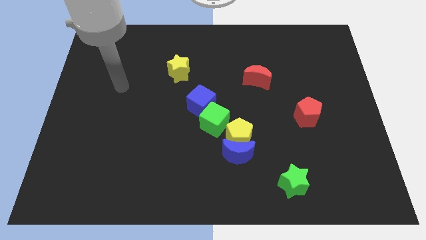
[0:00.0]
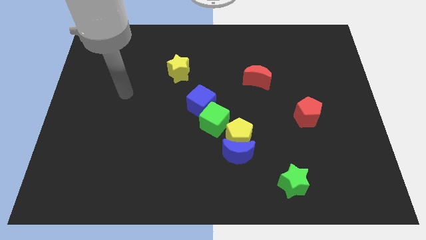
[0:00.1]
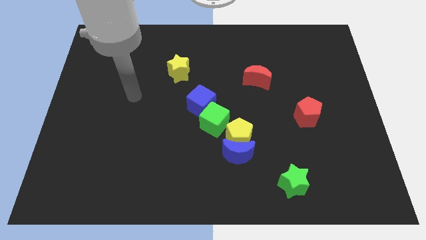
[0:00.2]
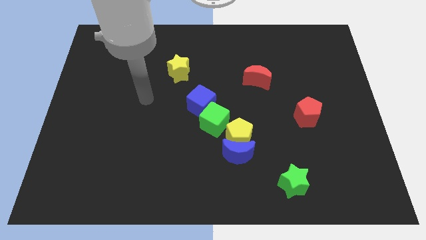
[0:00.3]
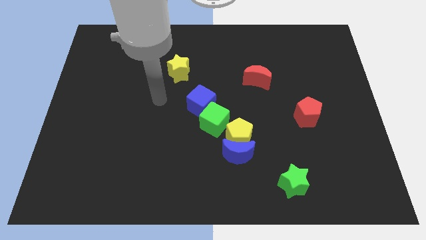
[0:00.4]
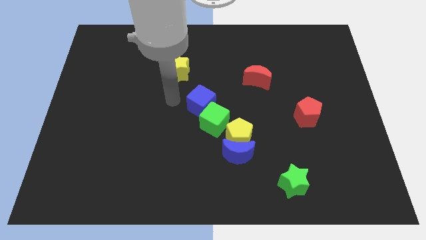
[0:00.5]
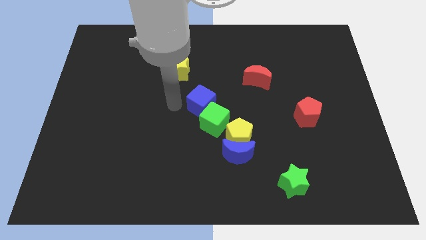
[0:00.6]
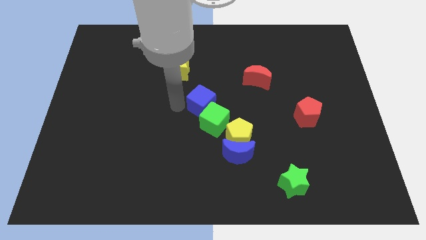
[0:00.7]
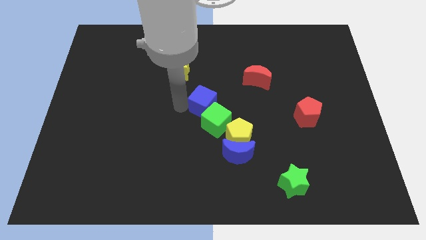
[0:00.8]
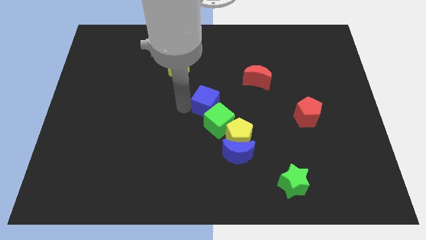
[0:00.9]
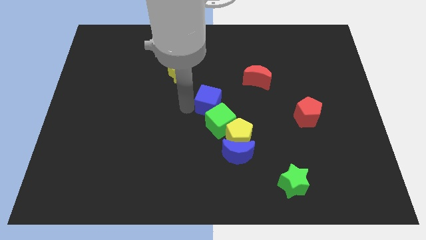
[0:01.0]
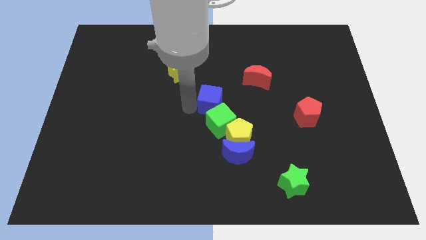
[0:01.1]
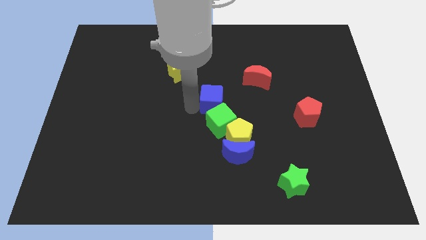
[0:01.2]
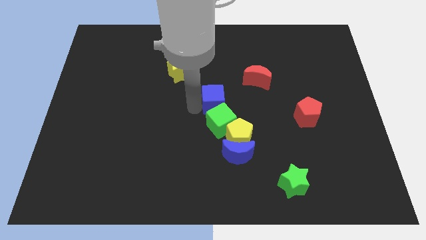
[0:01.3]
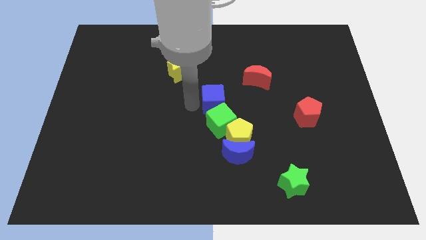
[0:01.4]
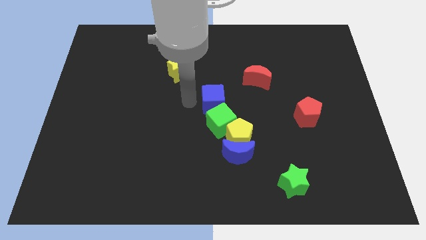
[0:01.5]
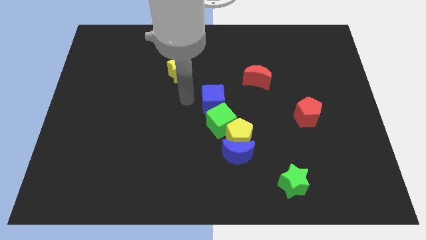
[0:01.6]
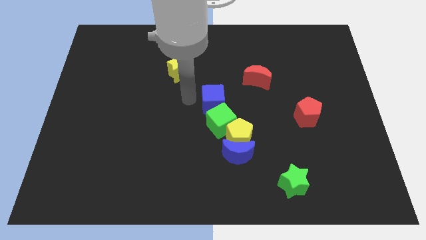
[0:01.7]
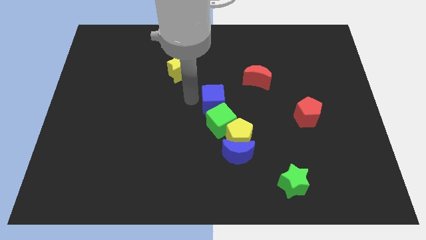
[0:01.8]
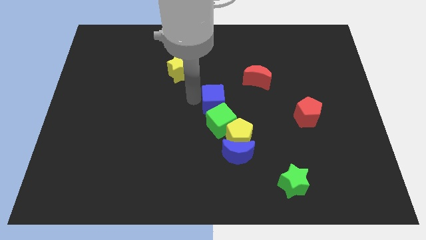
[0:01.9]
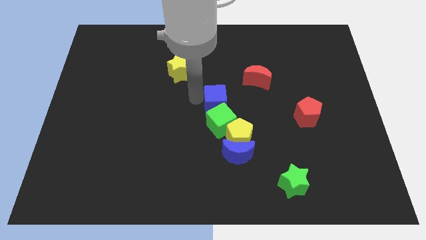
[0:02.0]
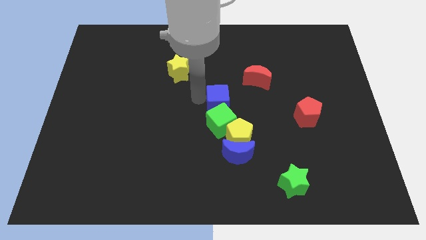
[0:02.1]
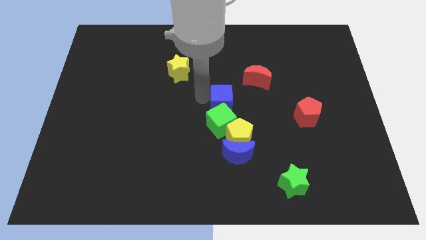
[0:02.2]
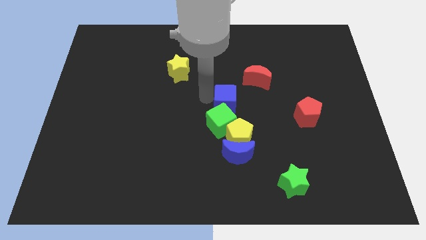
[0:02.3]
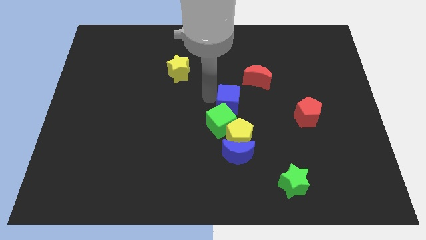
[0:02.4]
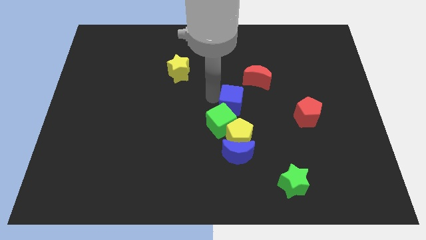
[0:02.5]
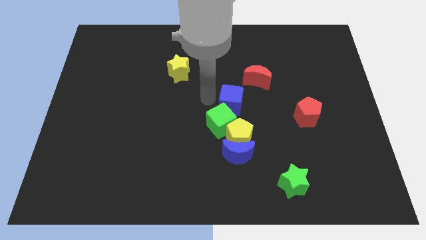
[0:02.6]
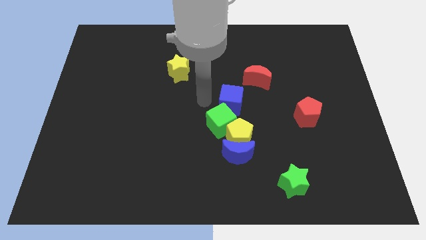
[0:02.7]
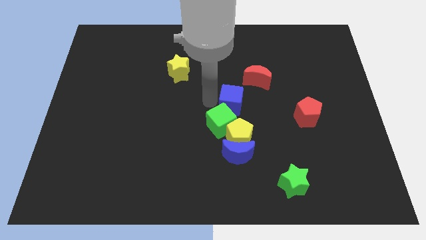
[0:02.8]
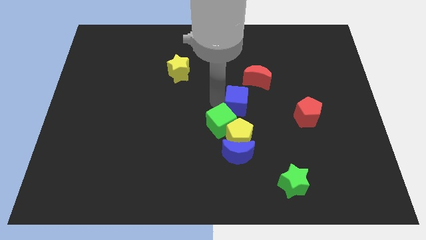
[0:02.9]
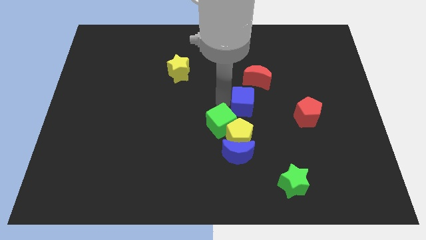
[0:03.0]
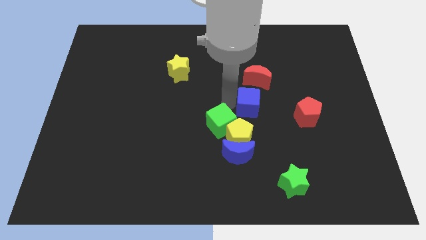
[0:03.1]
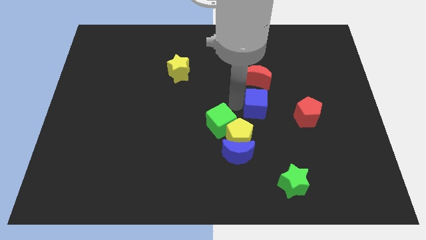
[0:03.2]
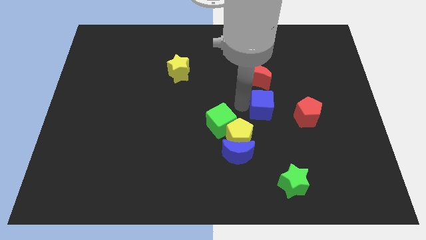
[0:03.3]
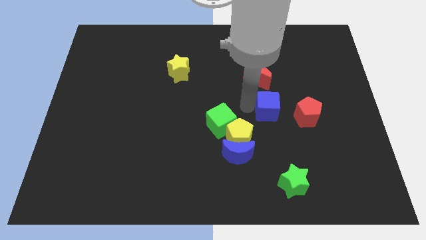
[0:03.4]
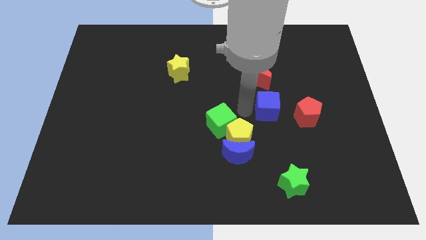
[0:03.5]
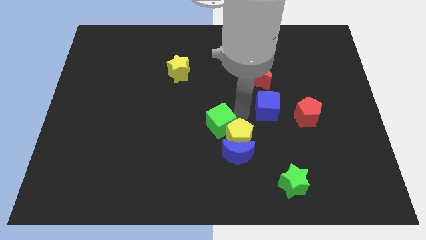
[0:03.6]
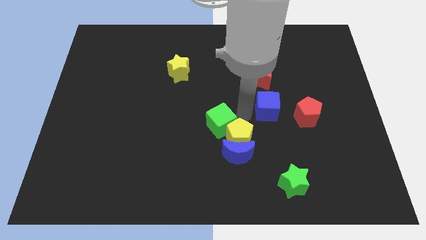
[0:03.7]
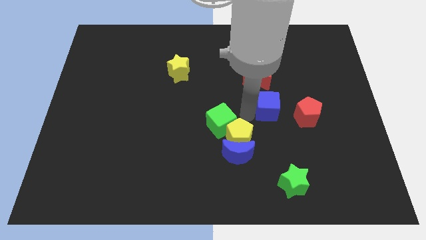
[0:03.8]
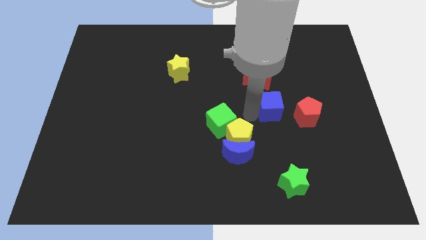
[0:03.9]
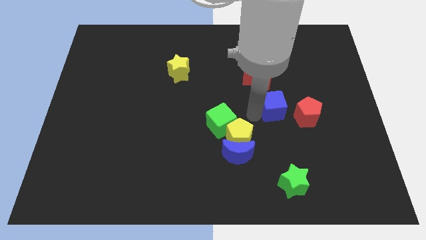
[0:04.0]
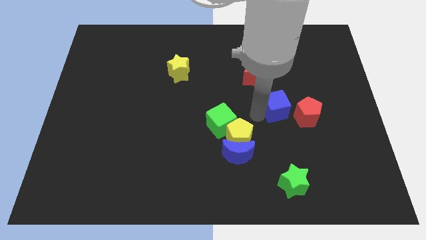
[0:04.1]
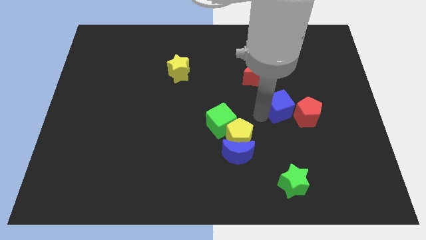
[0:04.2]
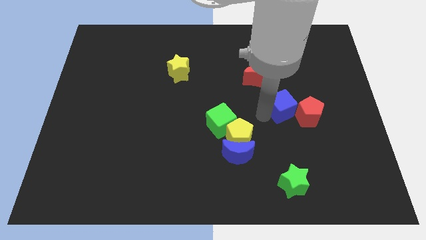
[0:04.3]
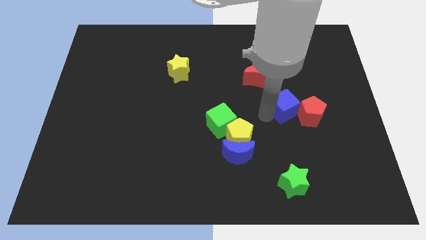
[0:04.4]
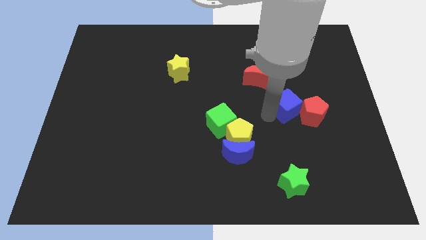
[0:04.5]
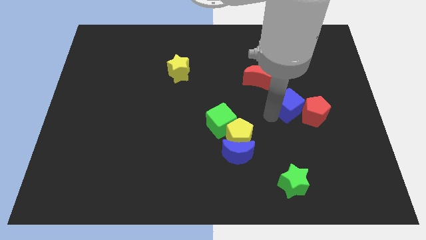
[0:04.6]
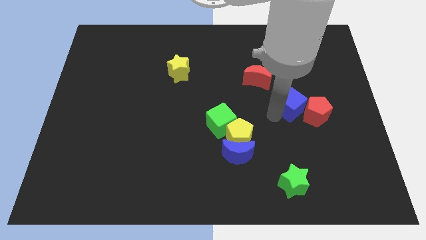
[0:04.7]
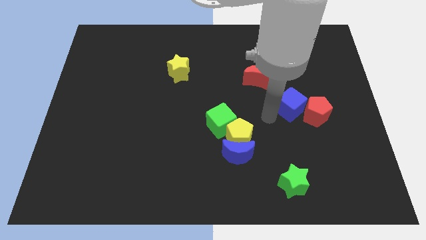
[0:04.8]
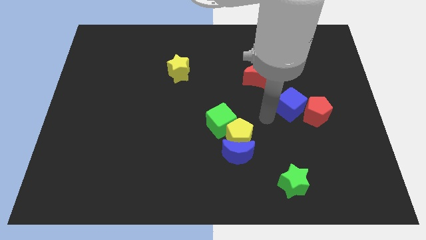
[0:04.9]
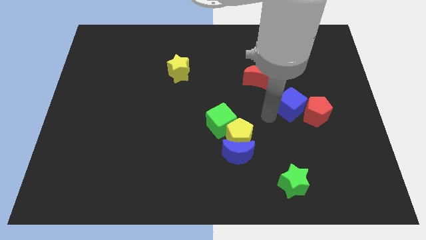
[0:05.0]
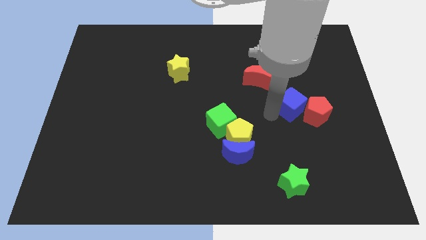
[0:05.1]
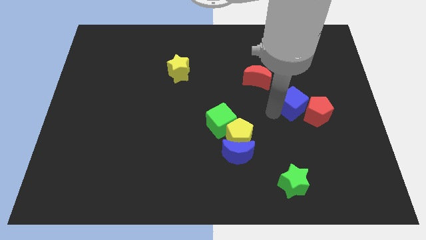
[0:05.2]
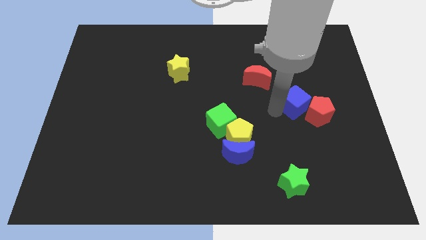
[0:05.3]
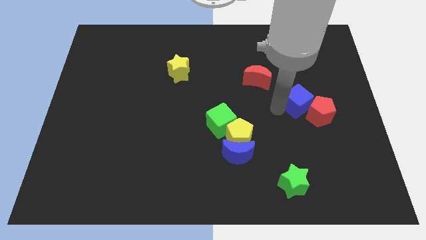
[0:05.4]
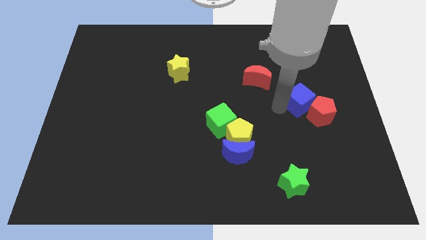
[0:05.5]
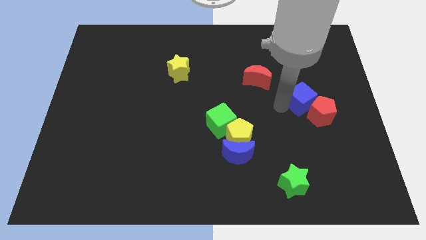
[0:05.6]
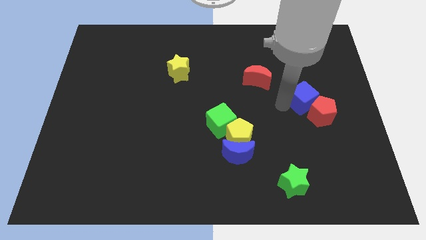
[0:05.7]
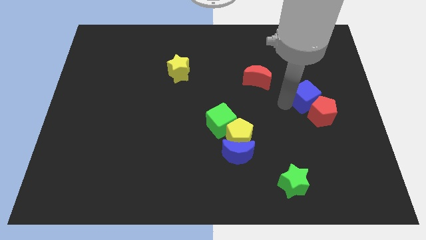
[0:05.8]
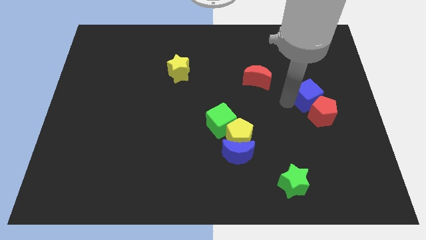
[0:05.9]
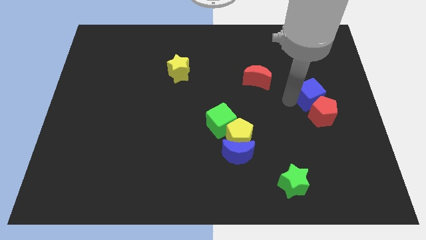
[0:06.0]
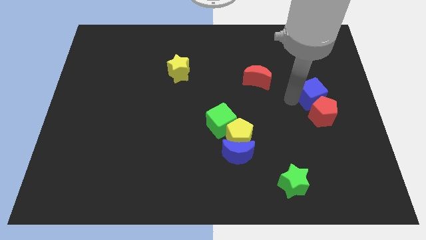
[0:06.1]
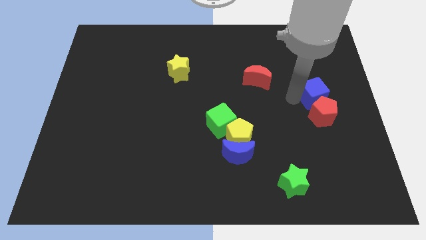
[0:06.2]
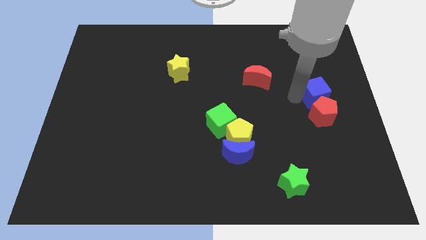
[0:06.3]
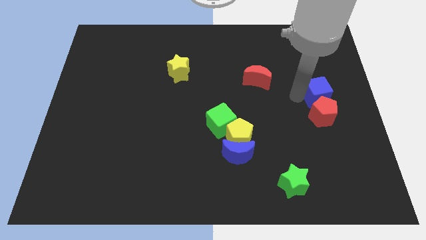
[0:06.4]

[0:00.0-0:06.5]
put the blue cube to the right side of the board
